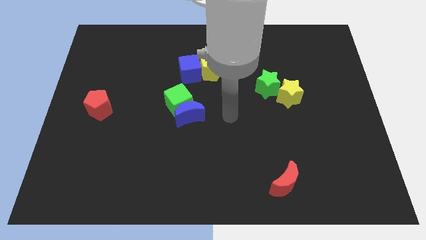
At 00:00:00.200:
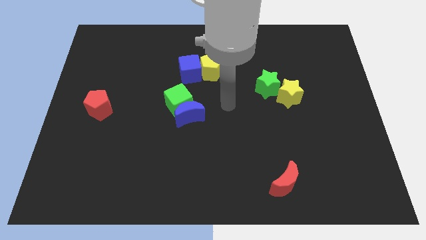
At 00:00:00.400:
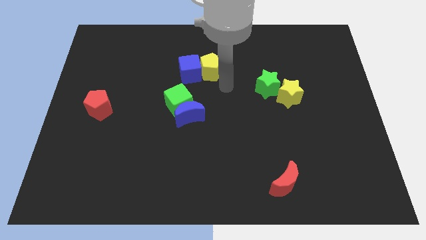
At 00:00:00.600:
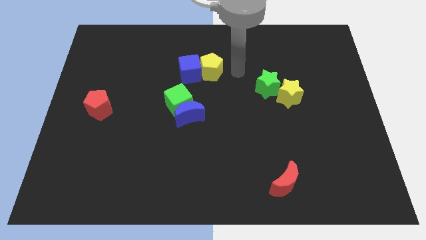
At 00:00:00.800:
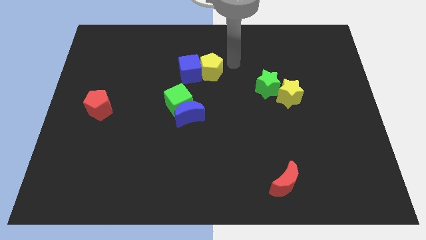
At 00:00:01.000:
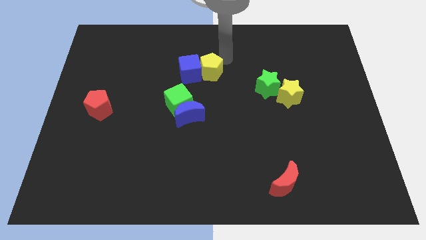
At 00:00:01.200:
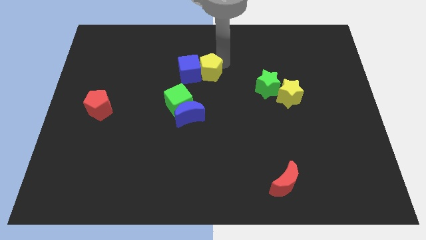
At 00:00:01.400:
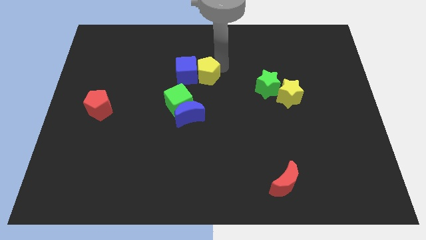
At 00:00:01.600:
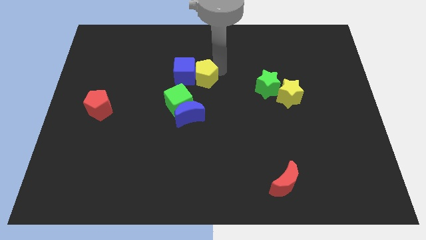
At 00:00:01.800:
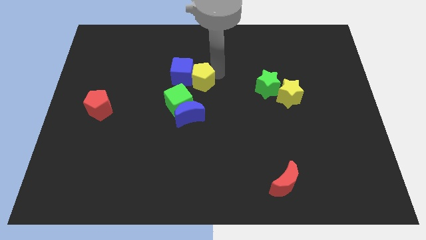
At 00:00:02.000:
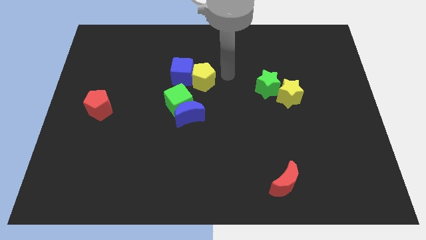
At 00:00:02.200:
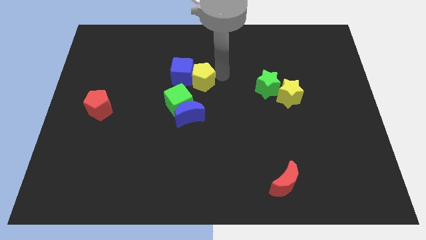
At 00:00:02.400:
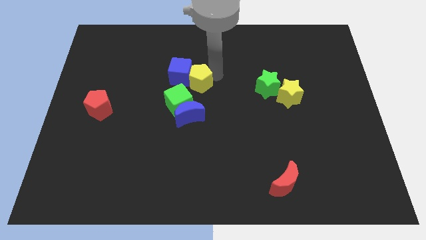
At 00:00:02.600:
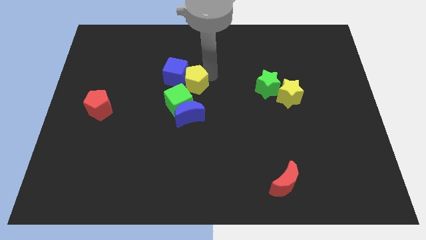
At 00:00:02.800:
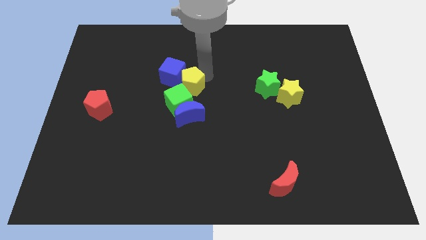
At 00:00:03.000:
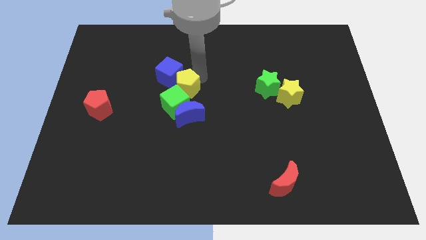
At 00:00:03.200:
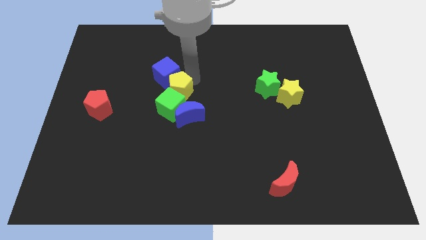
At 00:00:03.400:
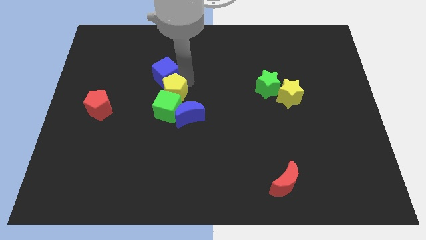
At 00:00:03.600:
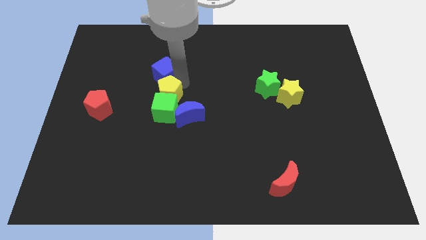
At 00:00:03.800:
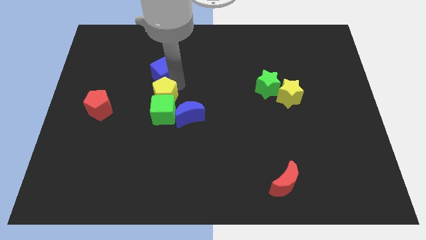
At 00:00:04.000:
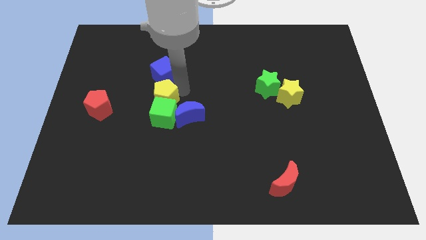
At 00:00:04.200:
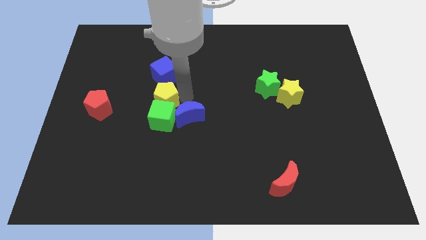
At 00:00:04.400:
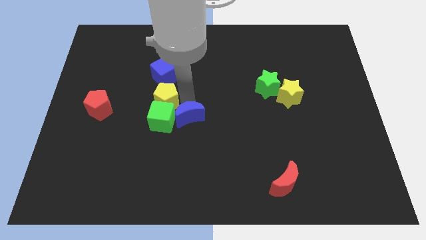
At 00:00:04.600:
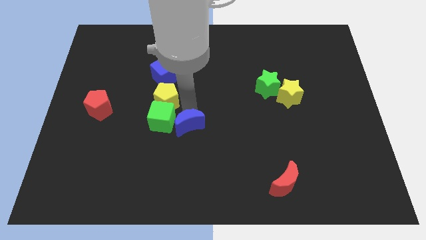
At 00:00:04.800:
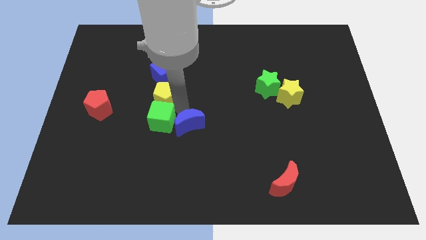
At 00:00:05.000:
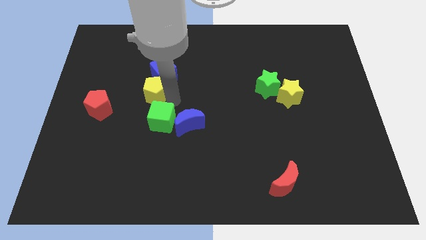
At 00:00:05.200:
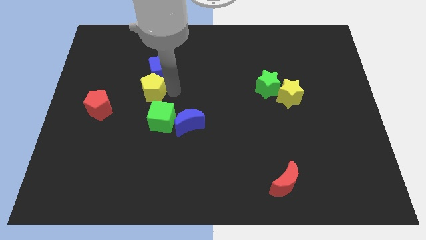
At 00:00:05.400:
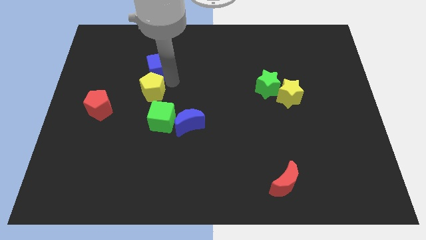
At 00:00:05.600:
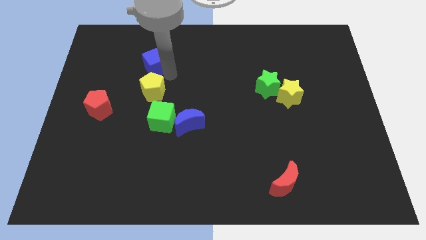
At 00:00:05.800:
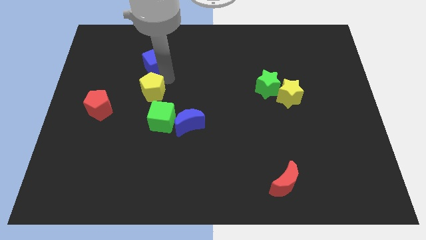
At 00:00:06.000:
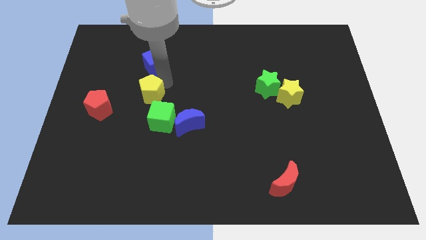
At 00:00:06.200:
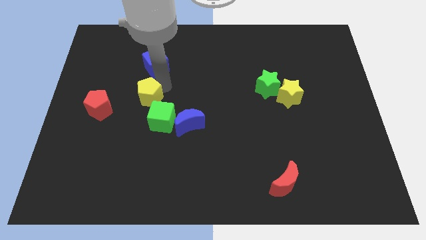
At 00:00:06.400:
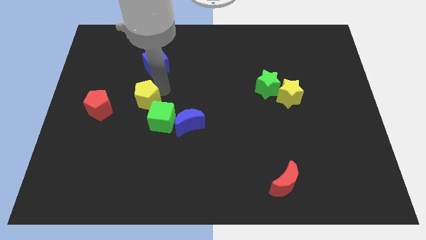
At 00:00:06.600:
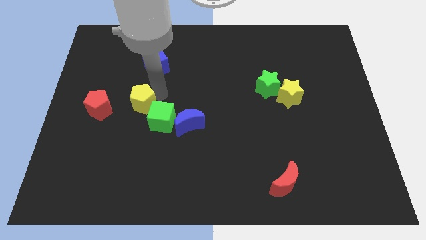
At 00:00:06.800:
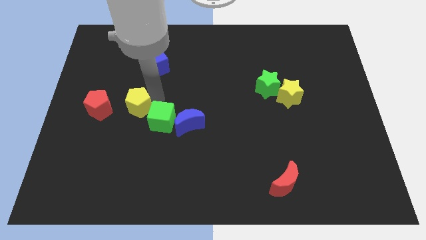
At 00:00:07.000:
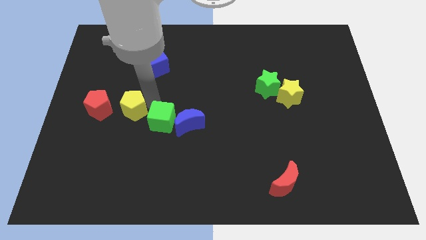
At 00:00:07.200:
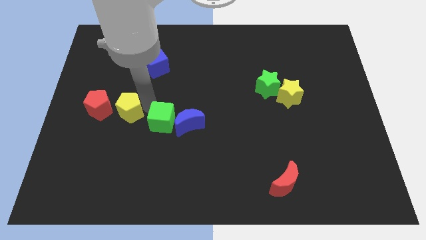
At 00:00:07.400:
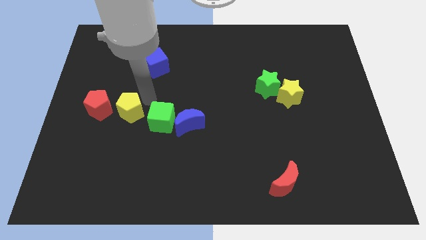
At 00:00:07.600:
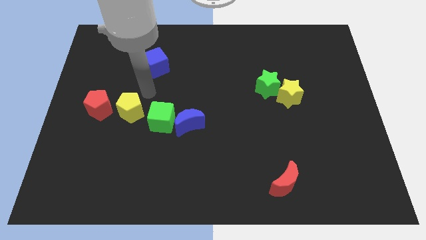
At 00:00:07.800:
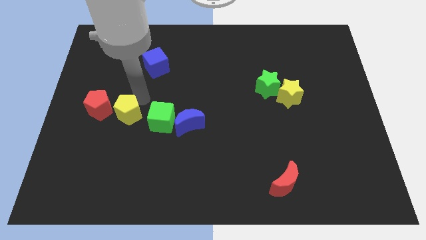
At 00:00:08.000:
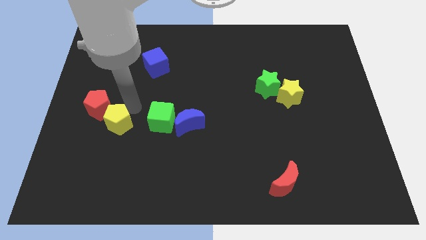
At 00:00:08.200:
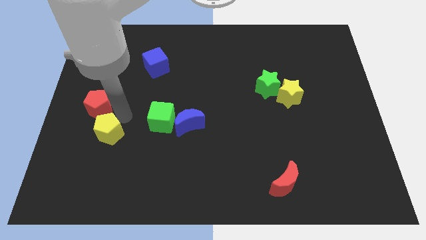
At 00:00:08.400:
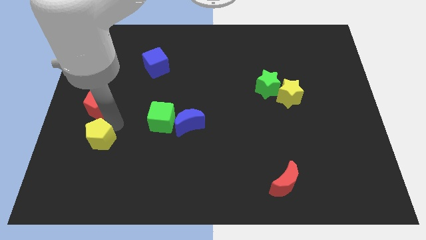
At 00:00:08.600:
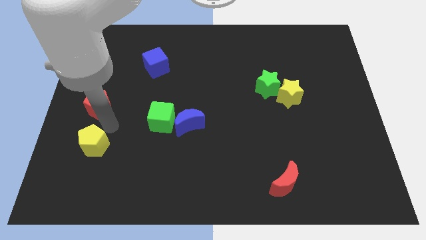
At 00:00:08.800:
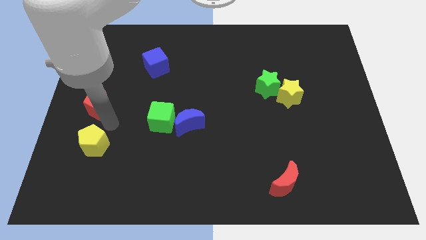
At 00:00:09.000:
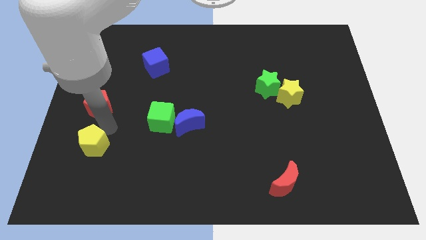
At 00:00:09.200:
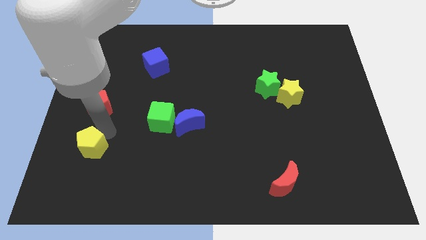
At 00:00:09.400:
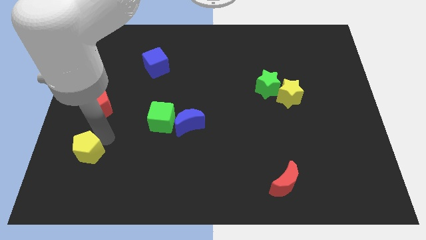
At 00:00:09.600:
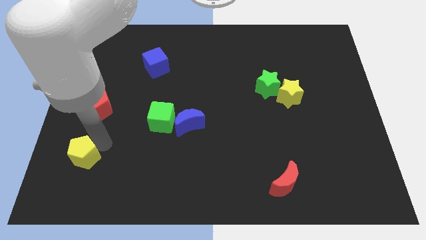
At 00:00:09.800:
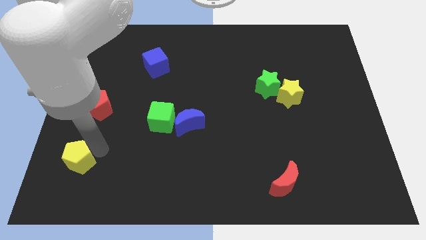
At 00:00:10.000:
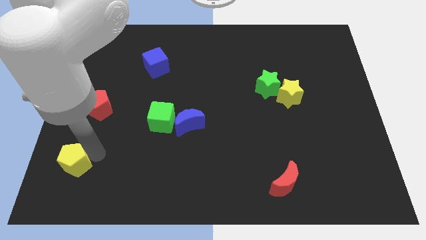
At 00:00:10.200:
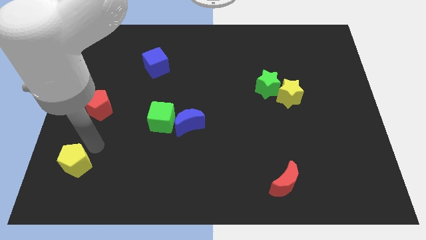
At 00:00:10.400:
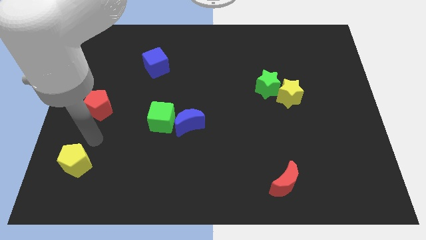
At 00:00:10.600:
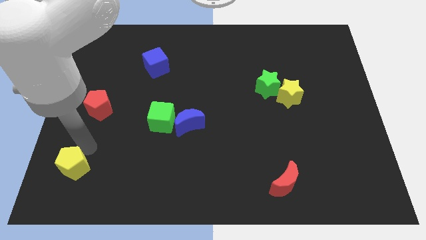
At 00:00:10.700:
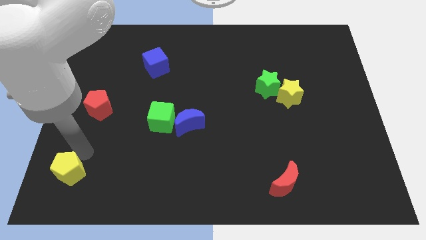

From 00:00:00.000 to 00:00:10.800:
push the yellow pentagon to the lower left corner

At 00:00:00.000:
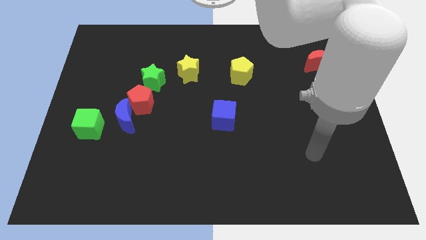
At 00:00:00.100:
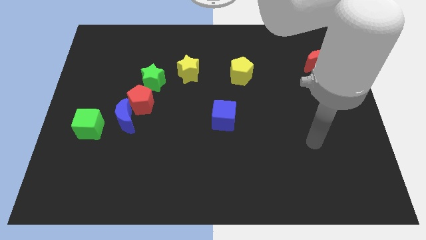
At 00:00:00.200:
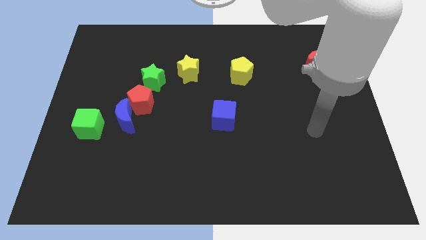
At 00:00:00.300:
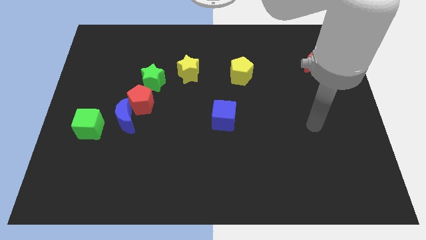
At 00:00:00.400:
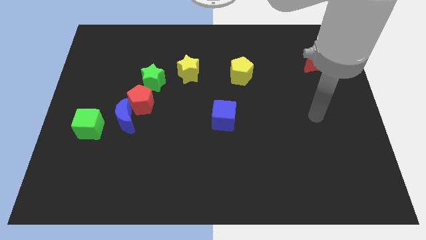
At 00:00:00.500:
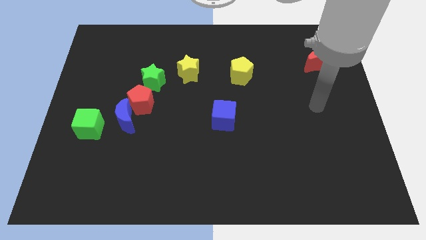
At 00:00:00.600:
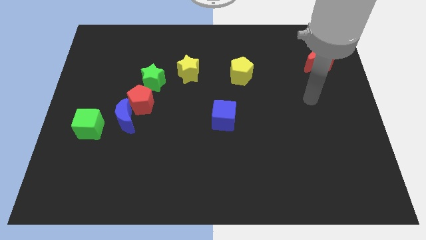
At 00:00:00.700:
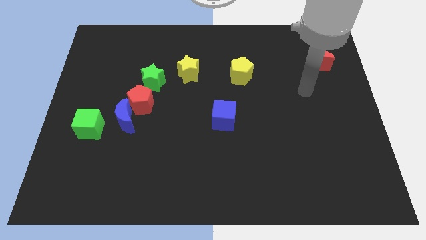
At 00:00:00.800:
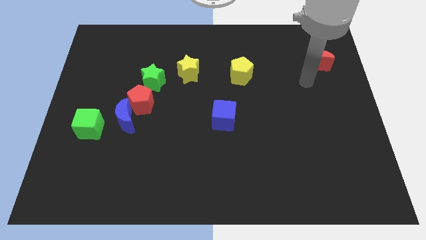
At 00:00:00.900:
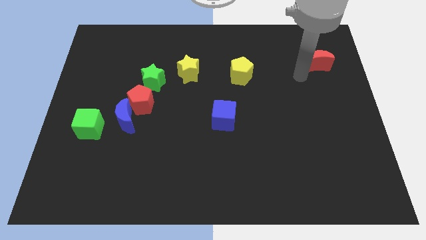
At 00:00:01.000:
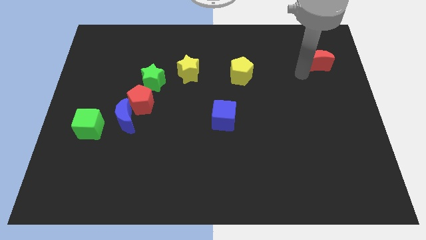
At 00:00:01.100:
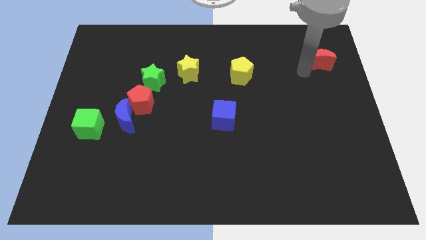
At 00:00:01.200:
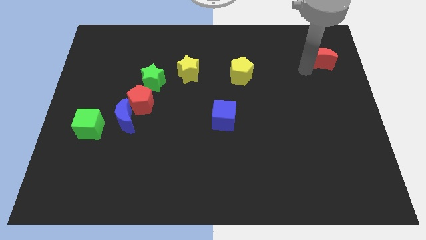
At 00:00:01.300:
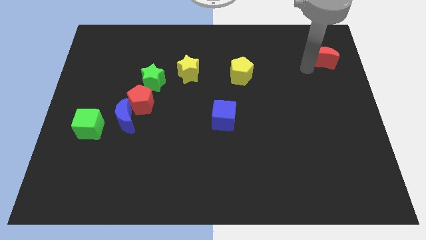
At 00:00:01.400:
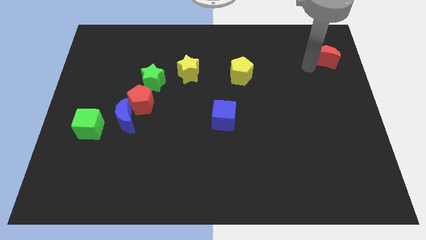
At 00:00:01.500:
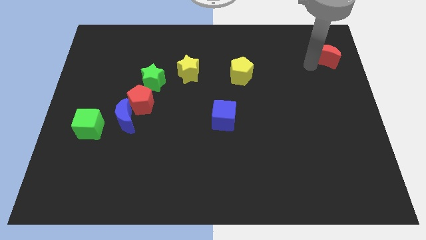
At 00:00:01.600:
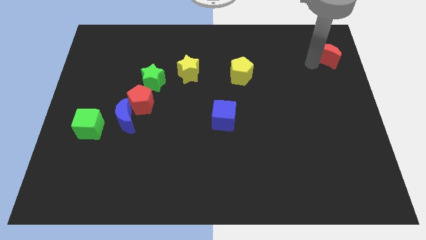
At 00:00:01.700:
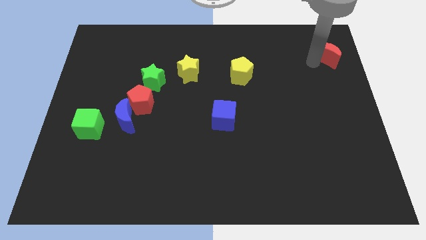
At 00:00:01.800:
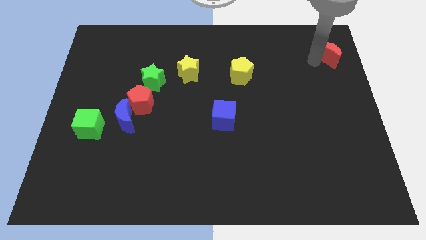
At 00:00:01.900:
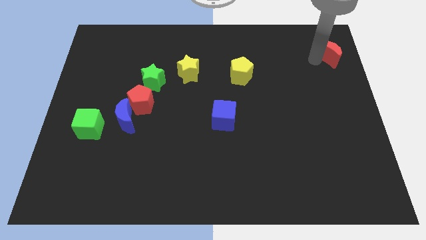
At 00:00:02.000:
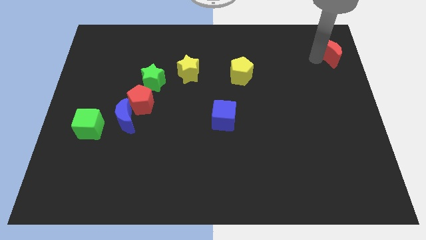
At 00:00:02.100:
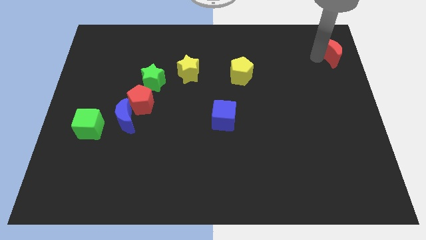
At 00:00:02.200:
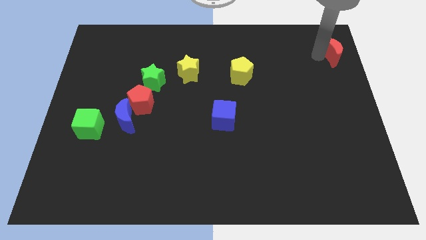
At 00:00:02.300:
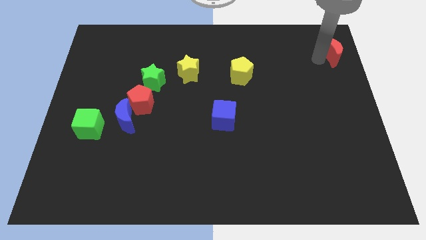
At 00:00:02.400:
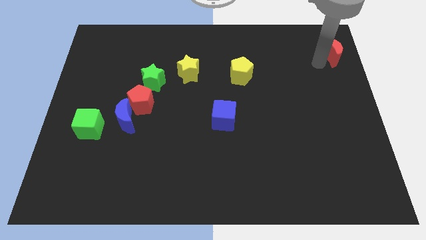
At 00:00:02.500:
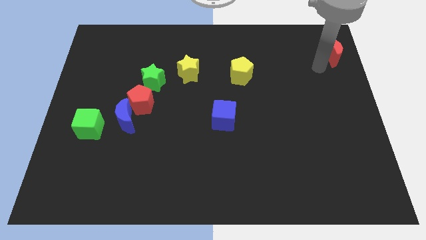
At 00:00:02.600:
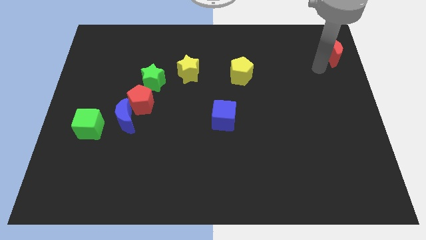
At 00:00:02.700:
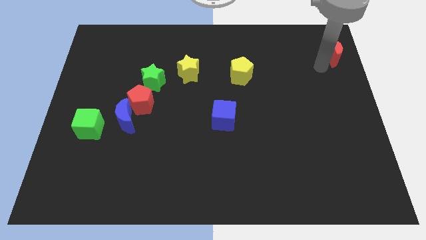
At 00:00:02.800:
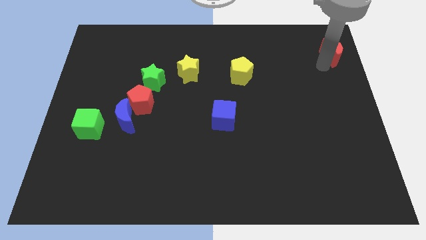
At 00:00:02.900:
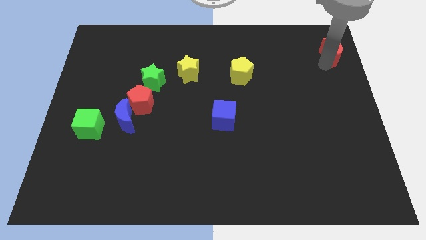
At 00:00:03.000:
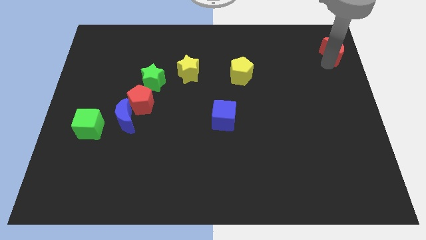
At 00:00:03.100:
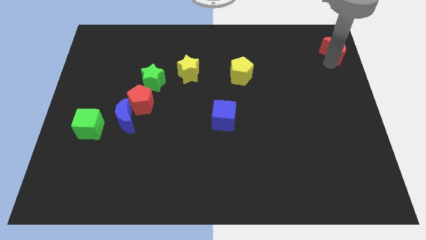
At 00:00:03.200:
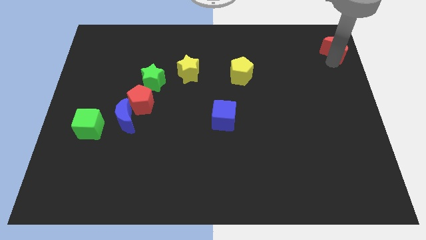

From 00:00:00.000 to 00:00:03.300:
put the red moon to the top right corner
